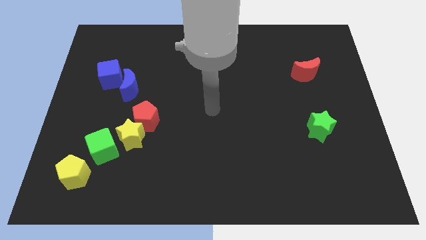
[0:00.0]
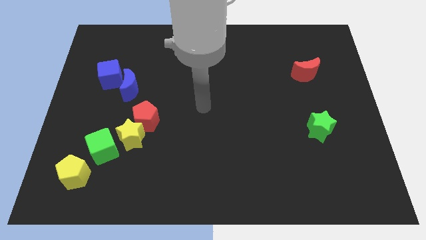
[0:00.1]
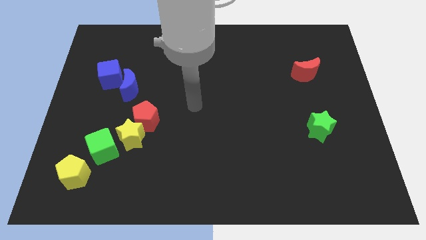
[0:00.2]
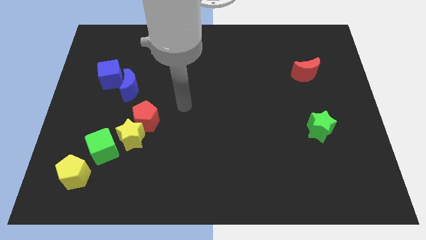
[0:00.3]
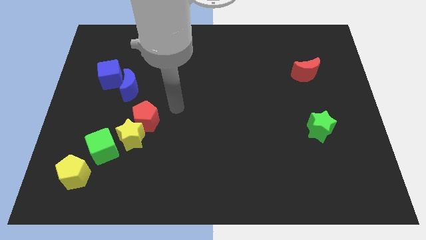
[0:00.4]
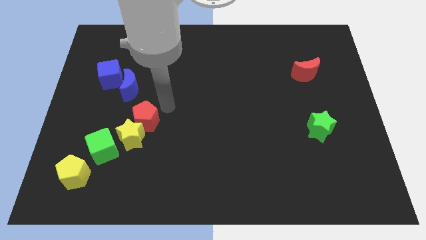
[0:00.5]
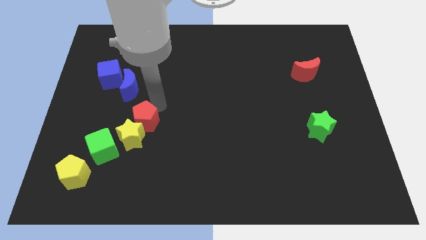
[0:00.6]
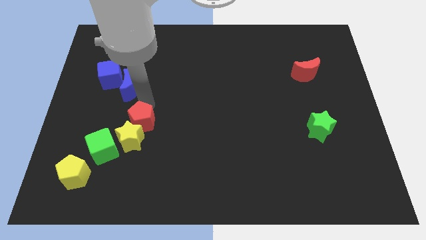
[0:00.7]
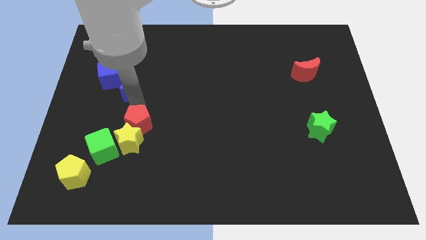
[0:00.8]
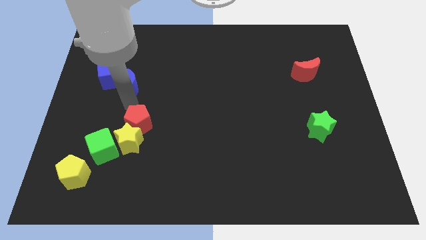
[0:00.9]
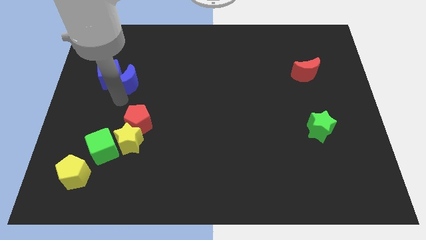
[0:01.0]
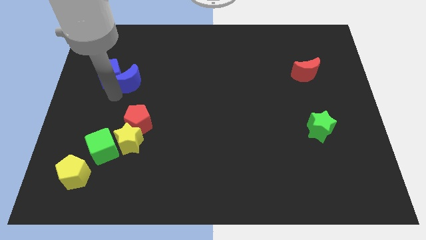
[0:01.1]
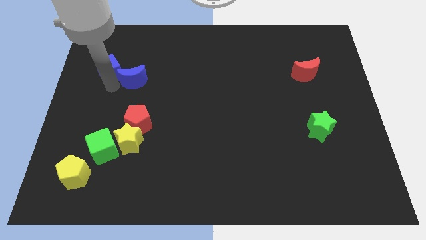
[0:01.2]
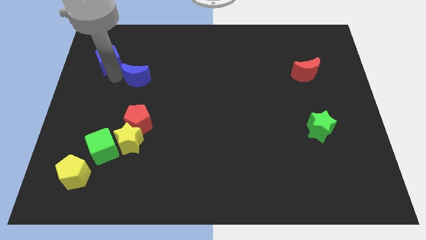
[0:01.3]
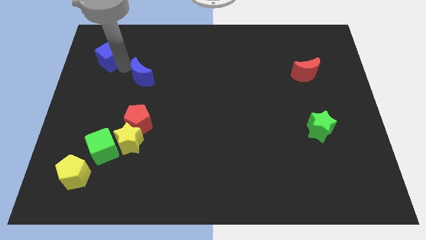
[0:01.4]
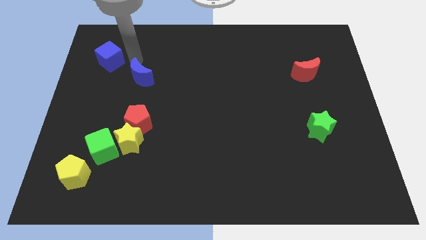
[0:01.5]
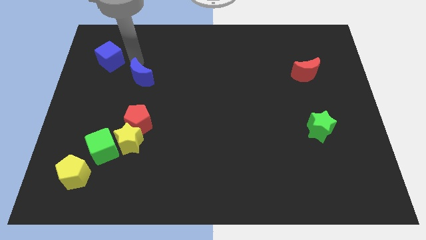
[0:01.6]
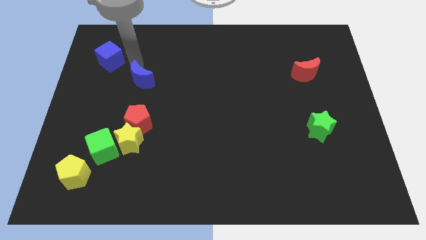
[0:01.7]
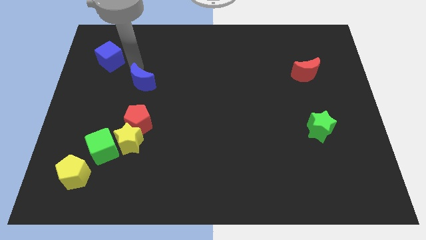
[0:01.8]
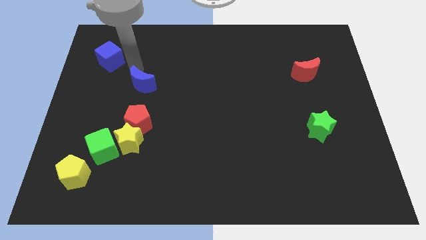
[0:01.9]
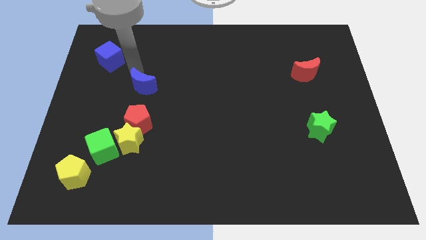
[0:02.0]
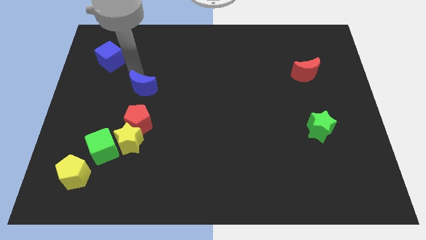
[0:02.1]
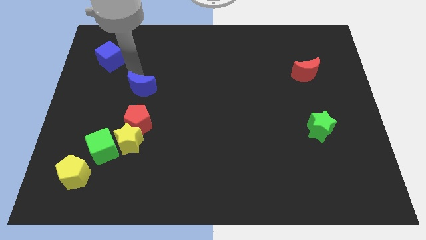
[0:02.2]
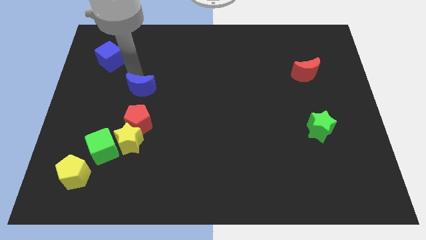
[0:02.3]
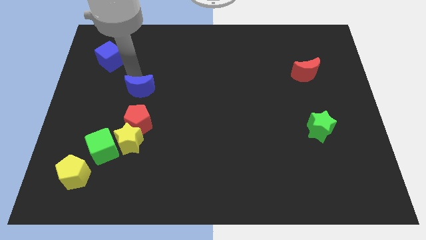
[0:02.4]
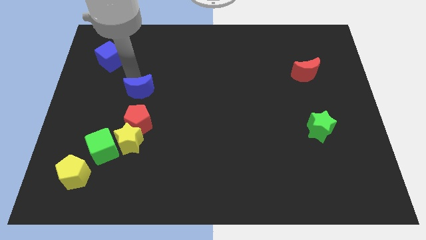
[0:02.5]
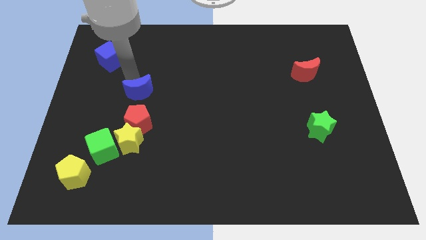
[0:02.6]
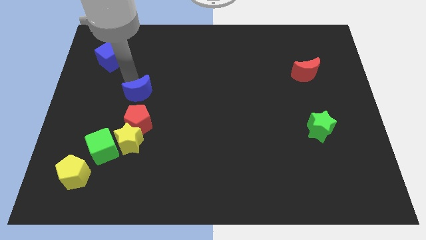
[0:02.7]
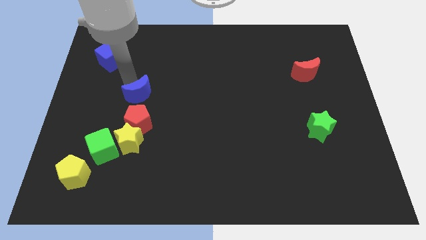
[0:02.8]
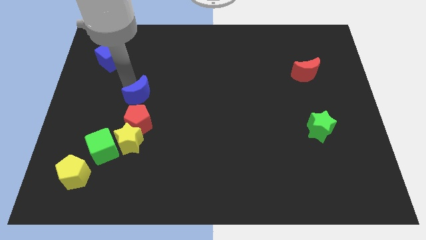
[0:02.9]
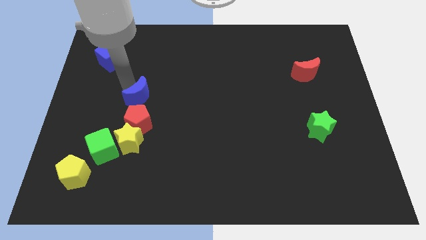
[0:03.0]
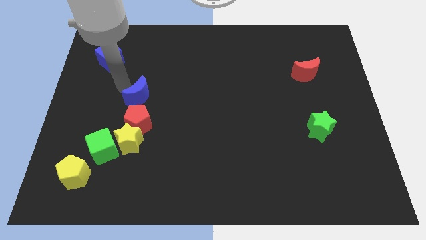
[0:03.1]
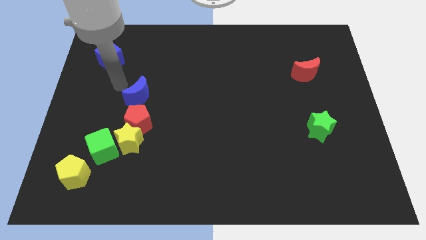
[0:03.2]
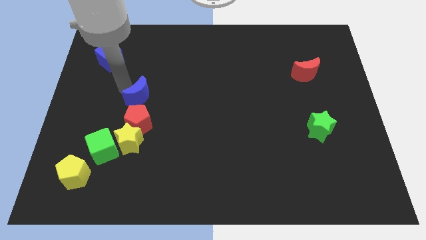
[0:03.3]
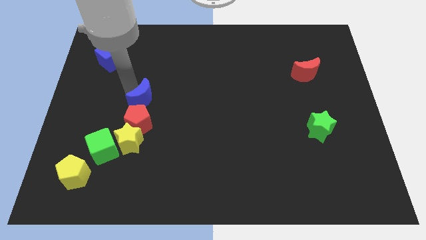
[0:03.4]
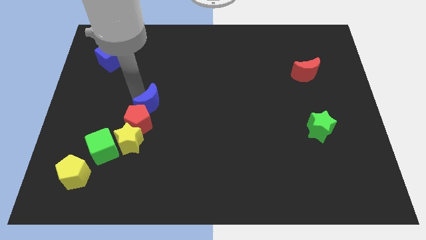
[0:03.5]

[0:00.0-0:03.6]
slightly move the blue moon diagonally downwards and right

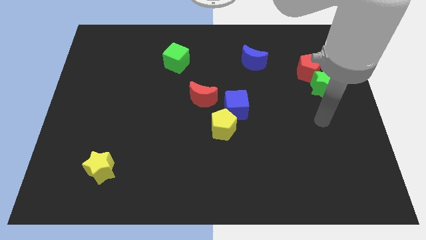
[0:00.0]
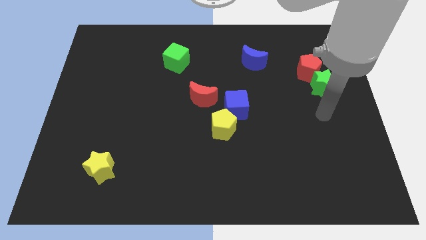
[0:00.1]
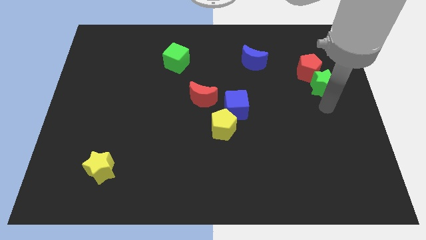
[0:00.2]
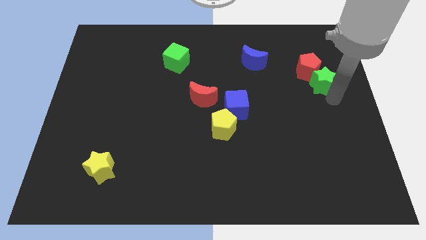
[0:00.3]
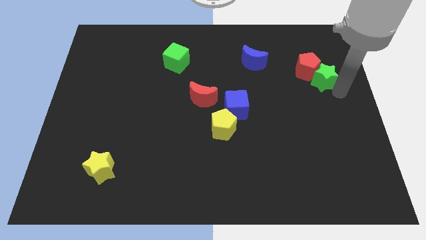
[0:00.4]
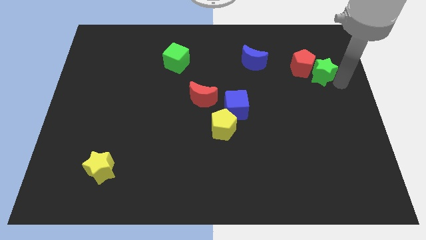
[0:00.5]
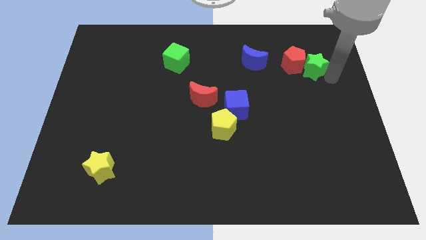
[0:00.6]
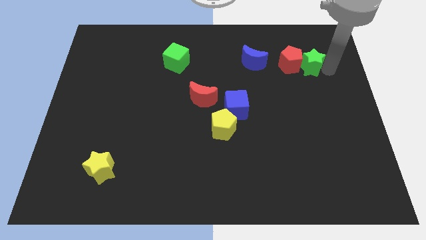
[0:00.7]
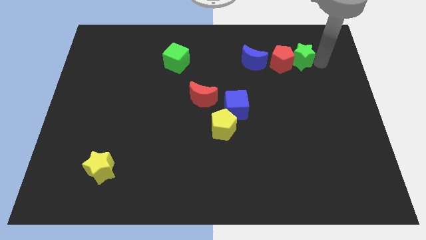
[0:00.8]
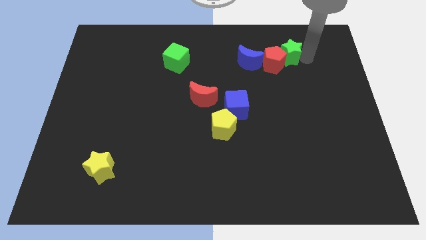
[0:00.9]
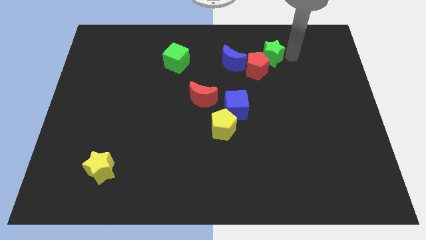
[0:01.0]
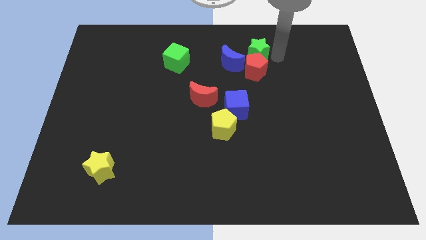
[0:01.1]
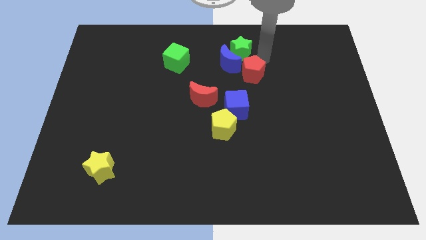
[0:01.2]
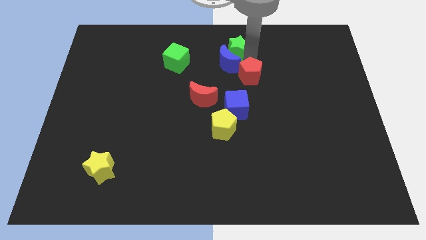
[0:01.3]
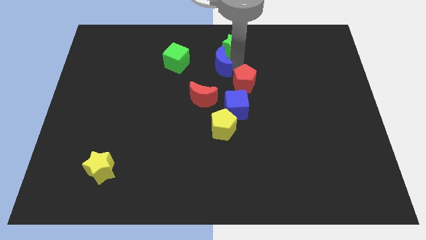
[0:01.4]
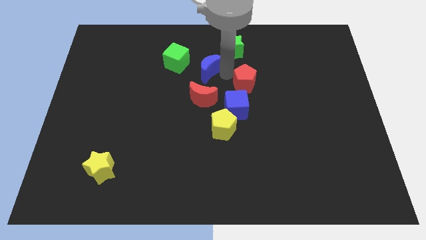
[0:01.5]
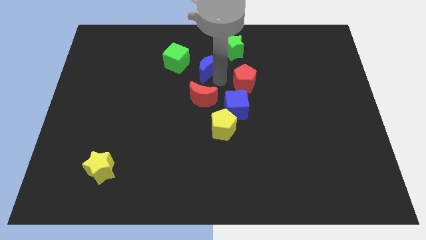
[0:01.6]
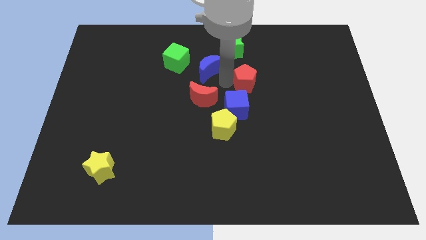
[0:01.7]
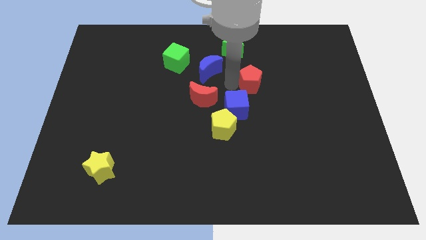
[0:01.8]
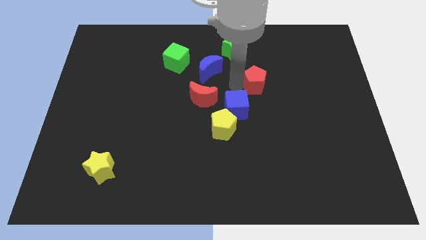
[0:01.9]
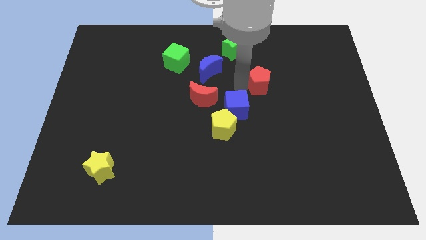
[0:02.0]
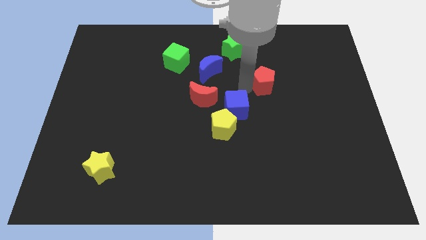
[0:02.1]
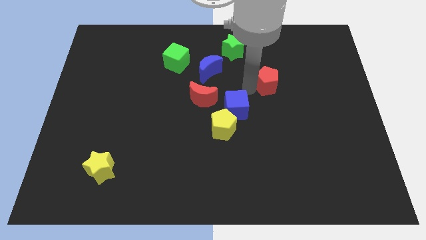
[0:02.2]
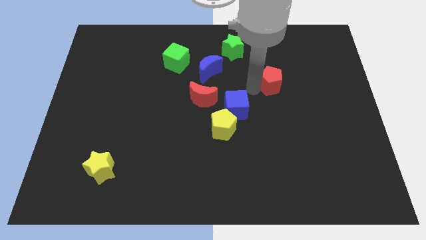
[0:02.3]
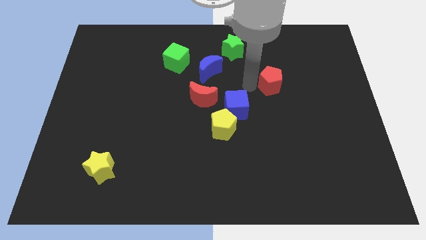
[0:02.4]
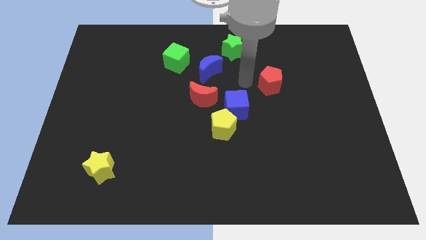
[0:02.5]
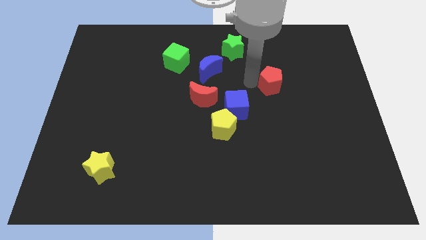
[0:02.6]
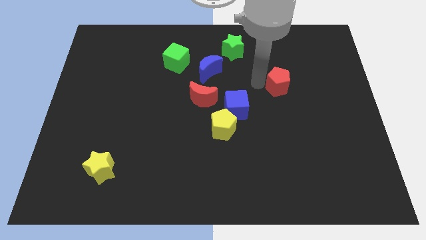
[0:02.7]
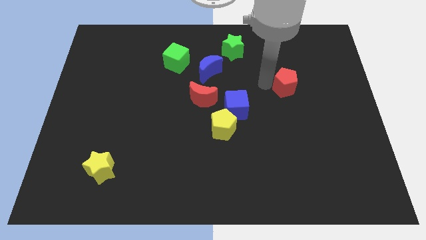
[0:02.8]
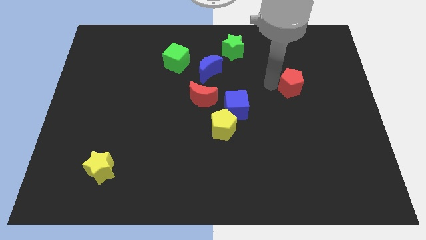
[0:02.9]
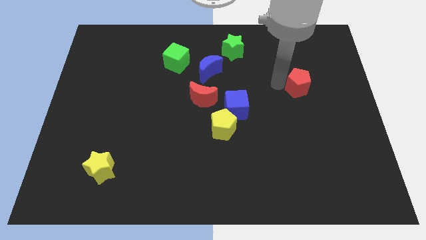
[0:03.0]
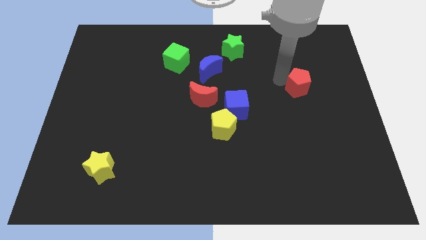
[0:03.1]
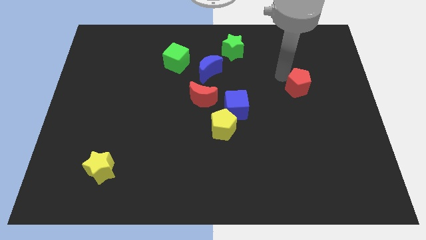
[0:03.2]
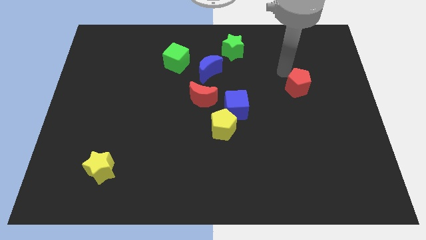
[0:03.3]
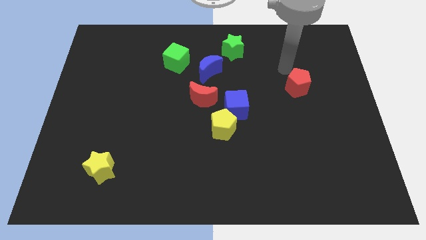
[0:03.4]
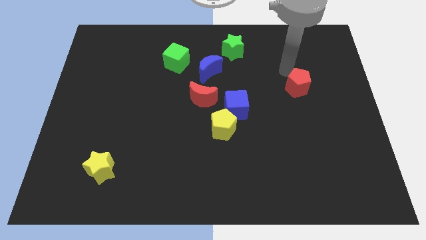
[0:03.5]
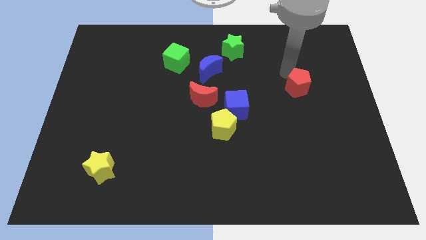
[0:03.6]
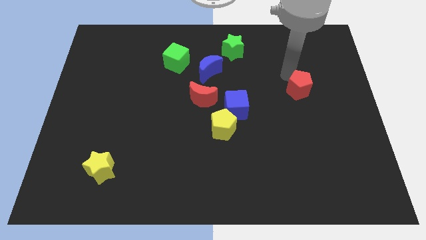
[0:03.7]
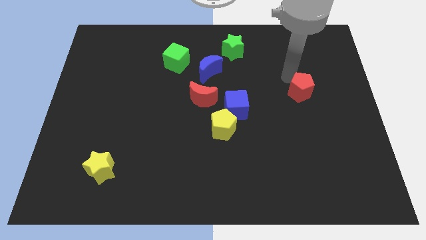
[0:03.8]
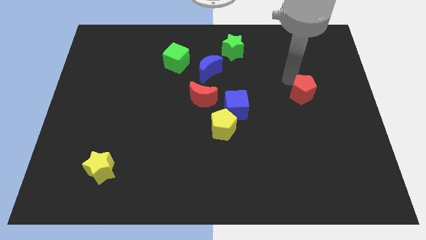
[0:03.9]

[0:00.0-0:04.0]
slightly move the red pentagon downwards

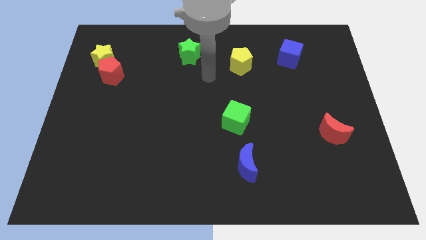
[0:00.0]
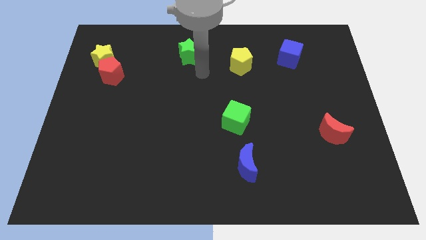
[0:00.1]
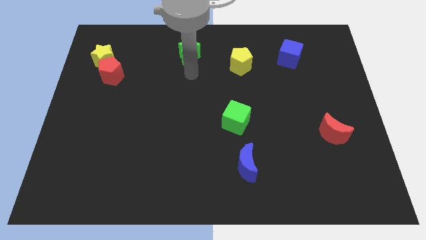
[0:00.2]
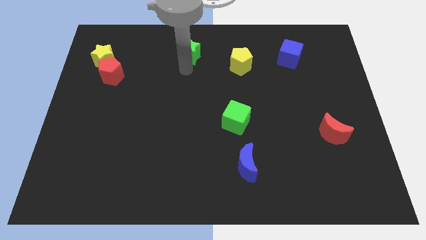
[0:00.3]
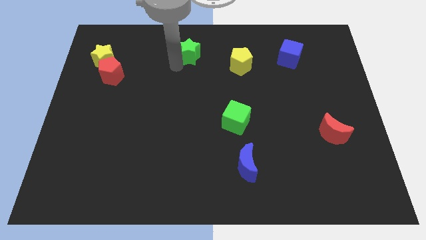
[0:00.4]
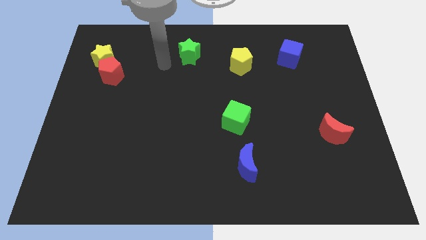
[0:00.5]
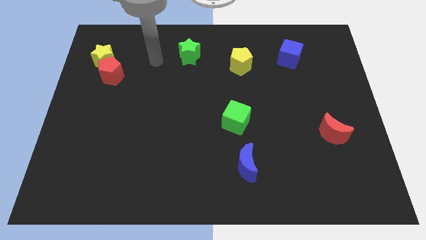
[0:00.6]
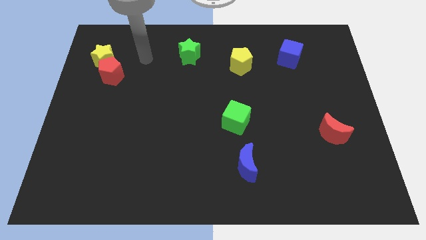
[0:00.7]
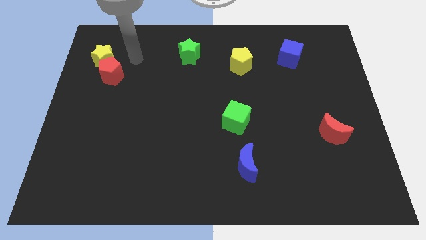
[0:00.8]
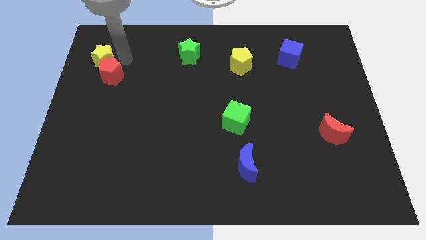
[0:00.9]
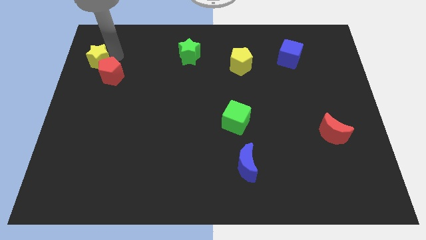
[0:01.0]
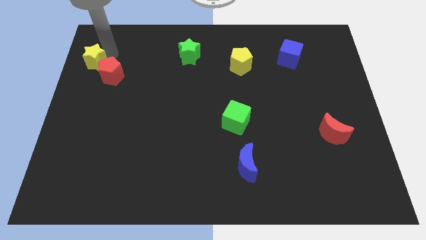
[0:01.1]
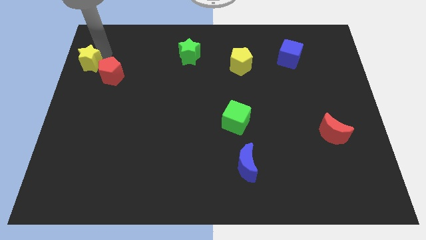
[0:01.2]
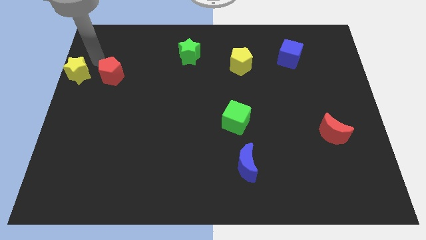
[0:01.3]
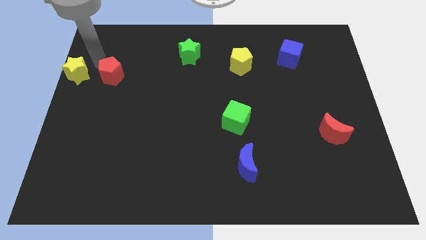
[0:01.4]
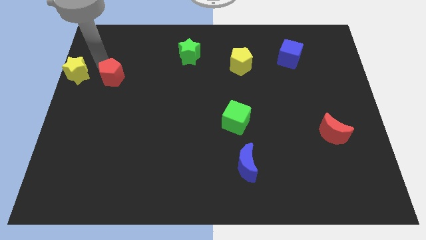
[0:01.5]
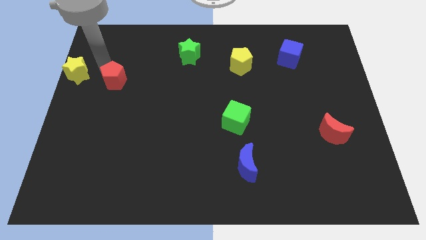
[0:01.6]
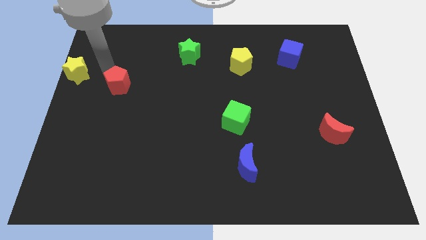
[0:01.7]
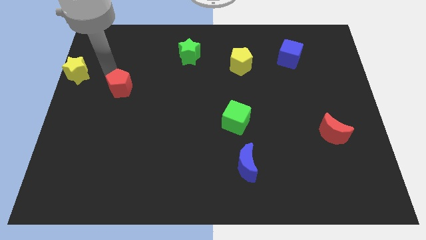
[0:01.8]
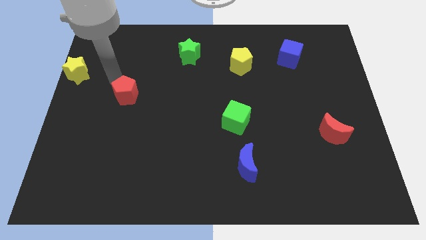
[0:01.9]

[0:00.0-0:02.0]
push the red pentagon downwards and to the right a little
